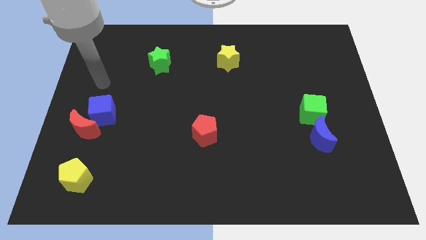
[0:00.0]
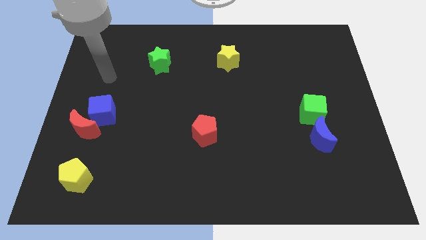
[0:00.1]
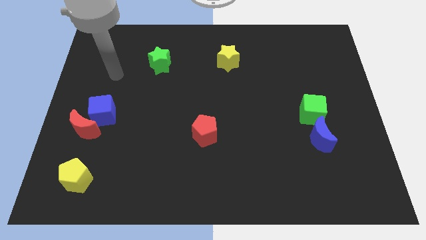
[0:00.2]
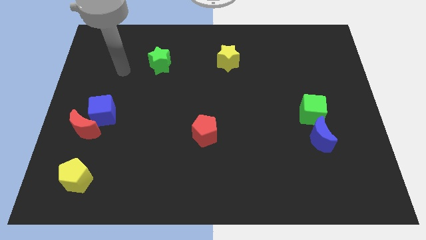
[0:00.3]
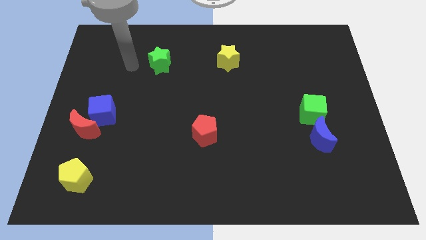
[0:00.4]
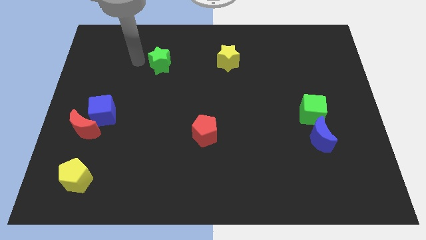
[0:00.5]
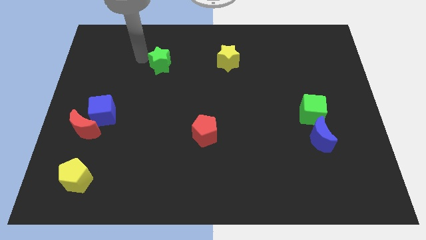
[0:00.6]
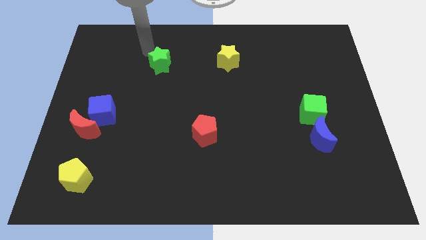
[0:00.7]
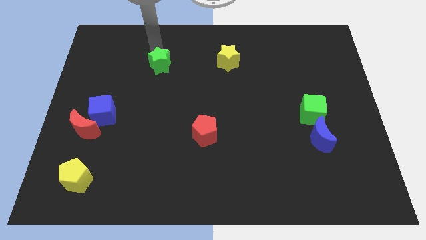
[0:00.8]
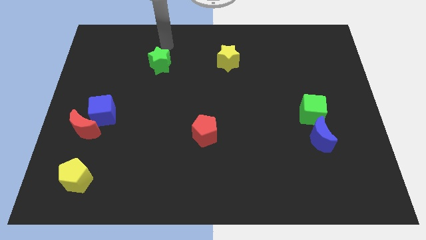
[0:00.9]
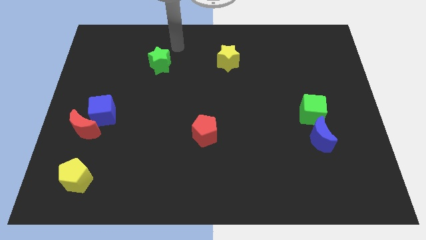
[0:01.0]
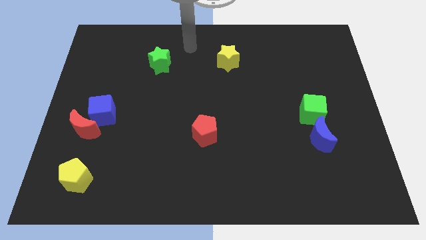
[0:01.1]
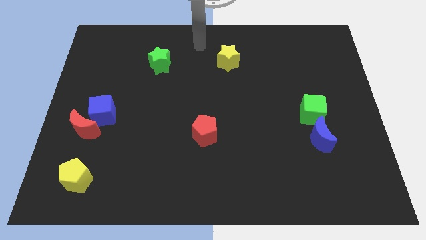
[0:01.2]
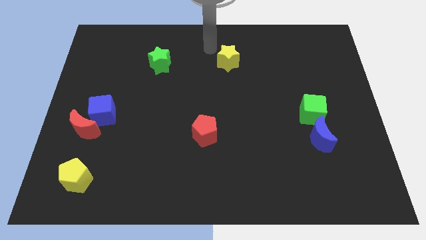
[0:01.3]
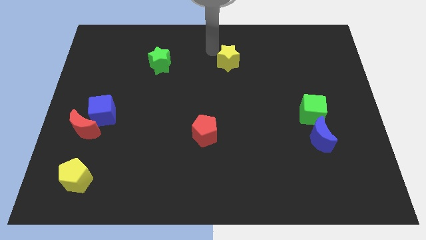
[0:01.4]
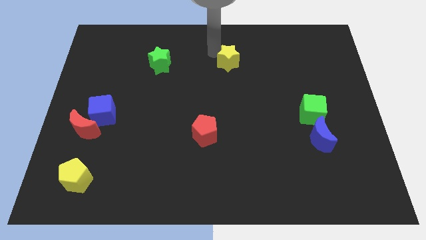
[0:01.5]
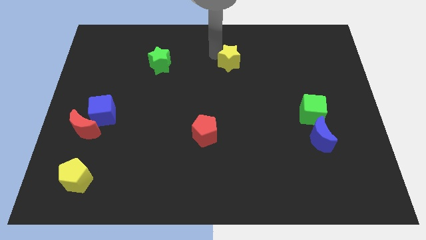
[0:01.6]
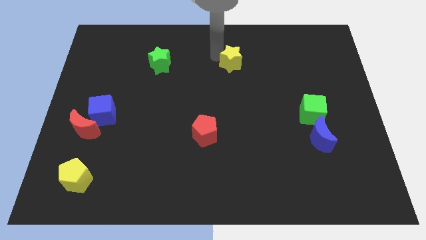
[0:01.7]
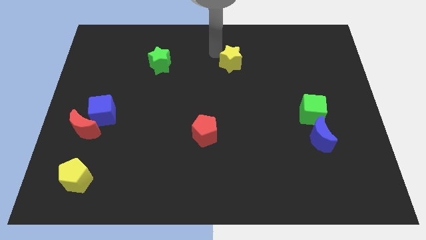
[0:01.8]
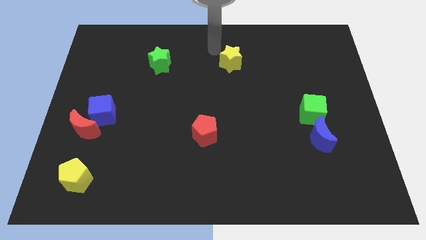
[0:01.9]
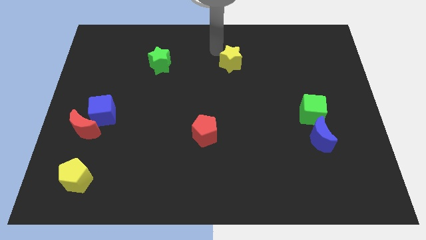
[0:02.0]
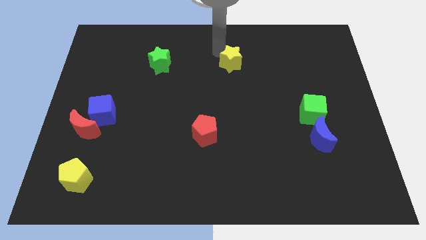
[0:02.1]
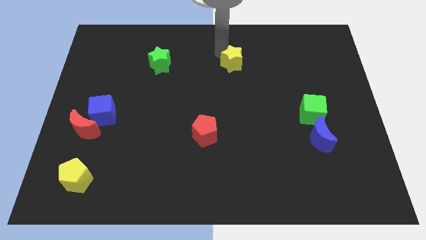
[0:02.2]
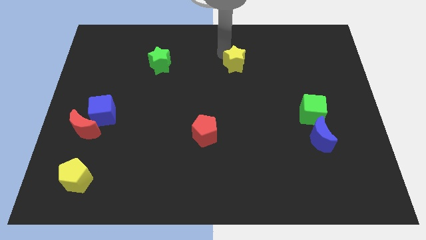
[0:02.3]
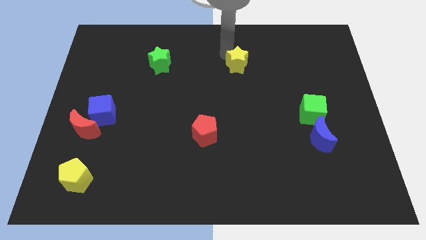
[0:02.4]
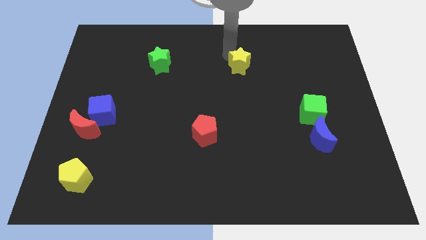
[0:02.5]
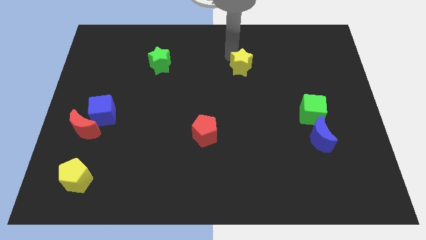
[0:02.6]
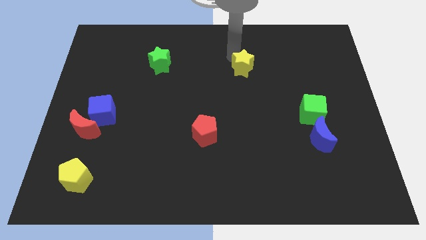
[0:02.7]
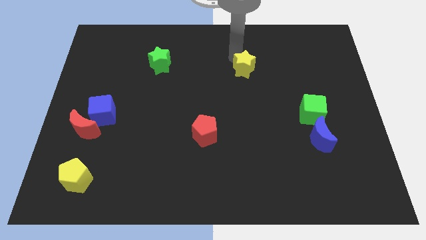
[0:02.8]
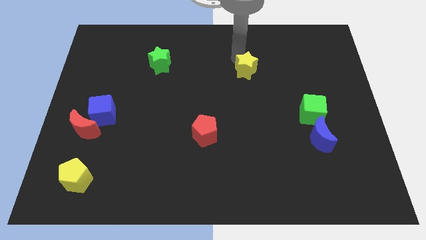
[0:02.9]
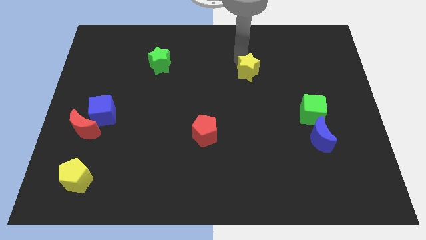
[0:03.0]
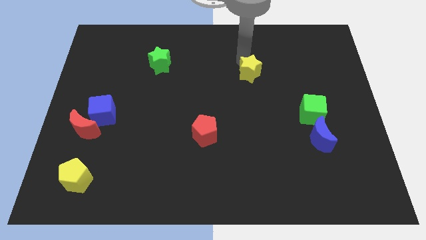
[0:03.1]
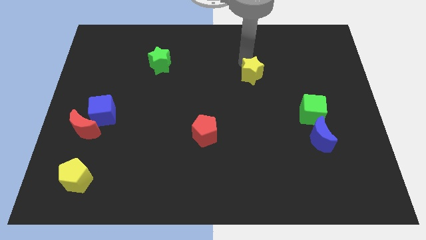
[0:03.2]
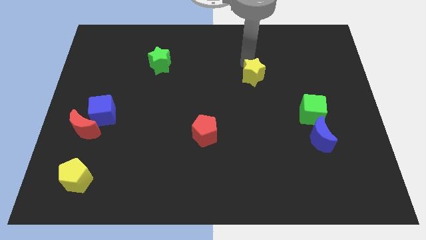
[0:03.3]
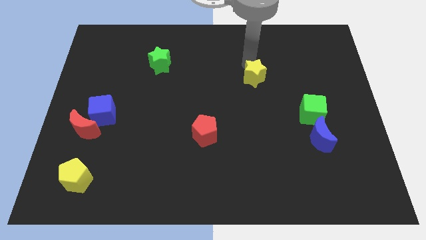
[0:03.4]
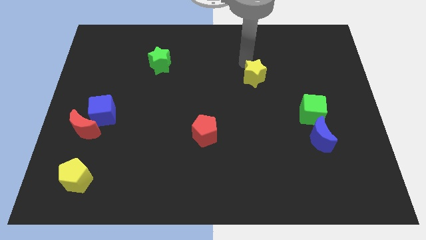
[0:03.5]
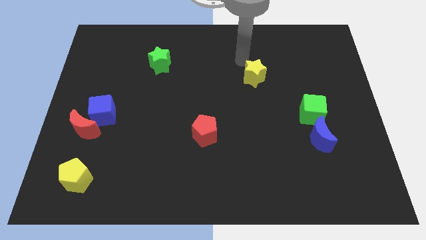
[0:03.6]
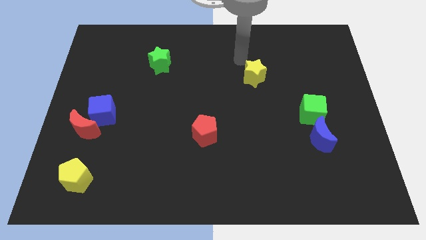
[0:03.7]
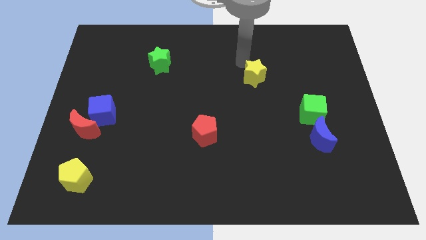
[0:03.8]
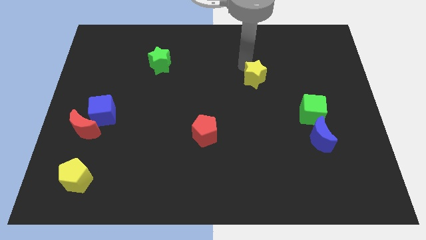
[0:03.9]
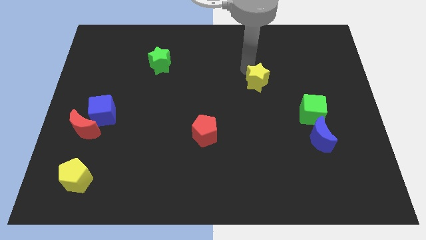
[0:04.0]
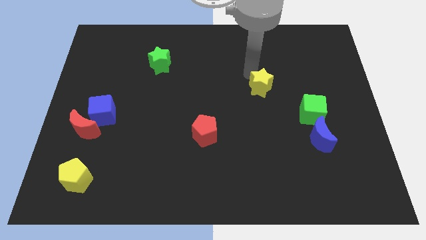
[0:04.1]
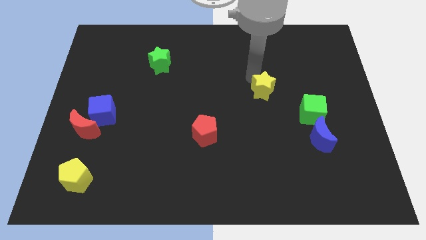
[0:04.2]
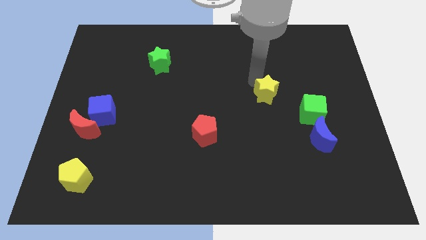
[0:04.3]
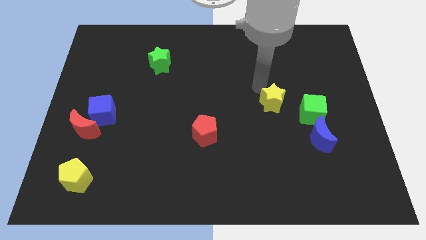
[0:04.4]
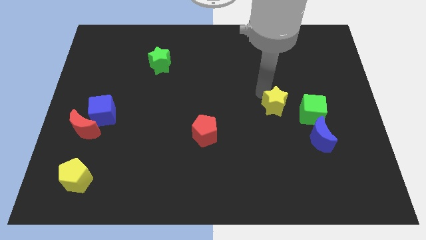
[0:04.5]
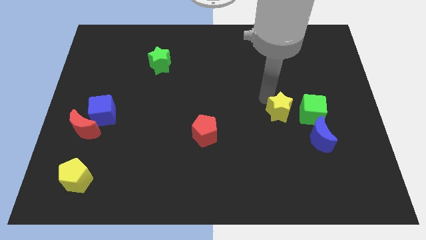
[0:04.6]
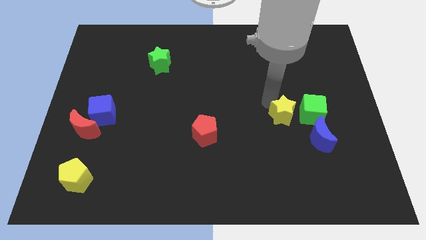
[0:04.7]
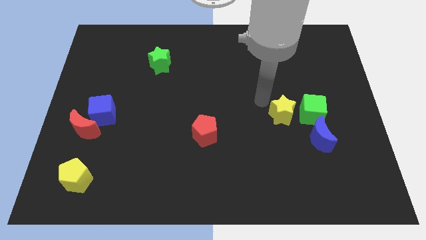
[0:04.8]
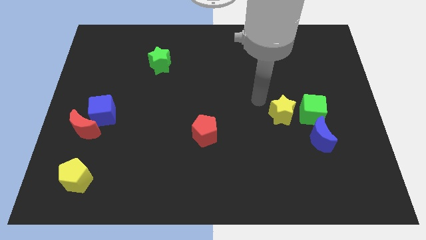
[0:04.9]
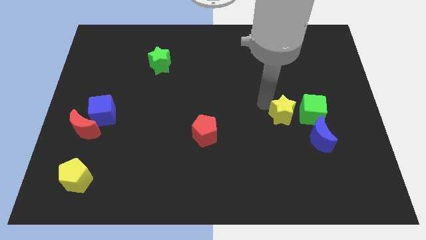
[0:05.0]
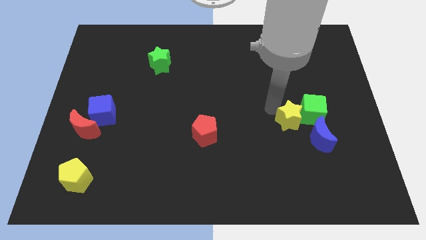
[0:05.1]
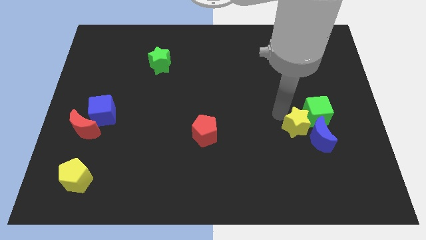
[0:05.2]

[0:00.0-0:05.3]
move the yellow star close to the blue moon

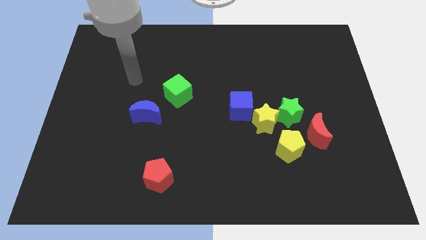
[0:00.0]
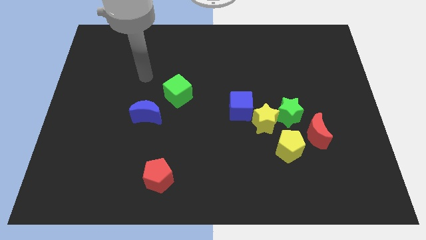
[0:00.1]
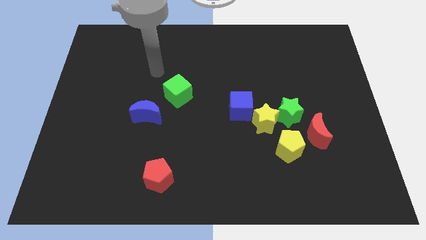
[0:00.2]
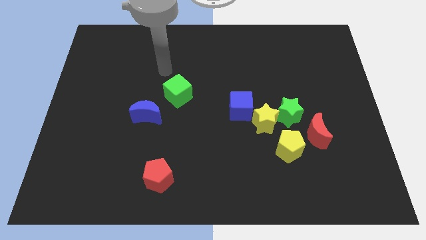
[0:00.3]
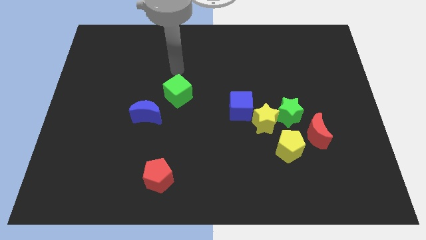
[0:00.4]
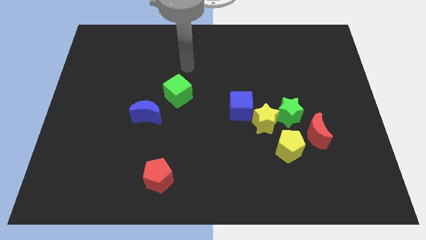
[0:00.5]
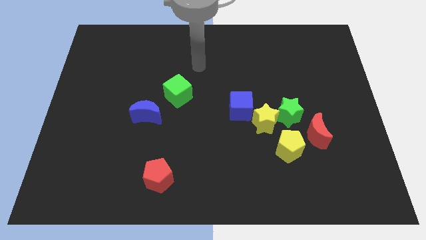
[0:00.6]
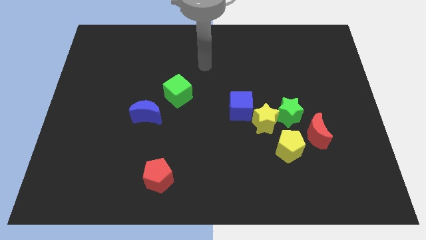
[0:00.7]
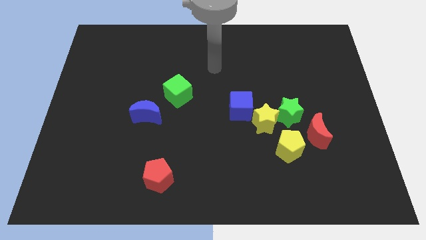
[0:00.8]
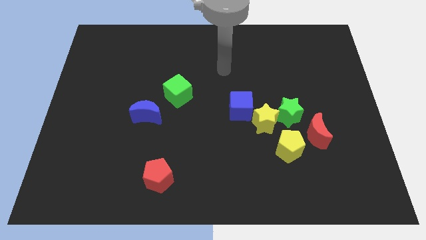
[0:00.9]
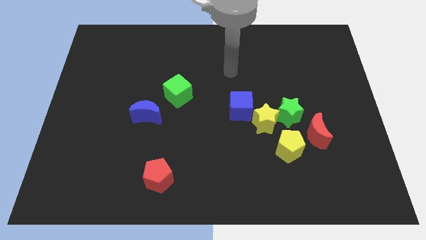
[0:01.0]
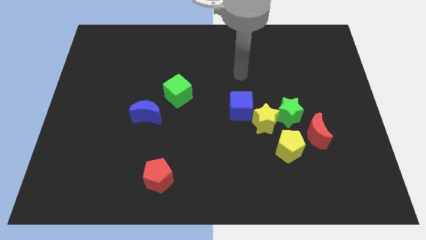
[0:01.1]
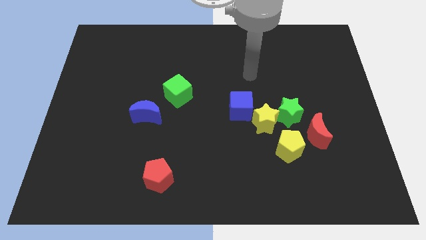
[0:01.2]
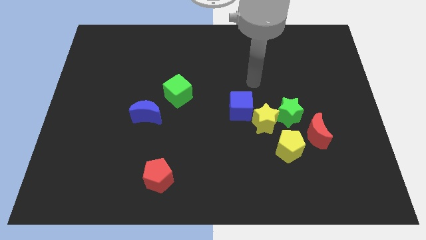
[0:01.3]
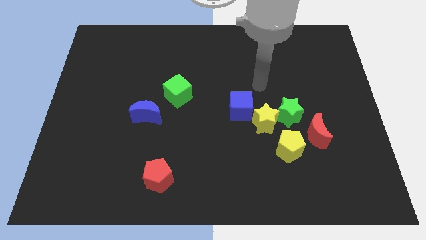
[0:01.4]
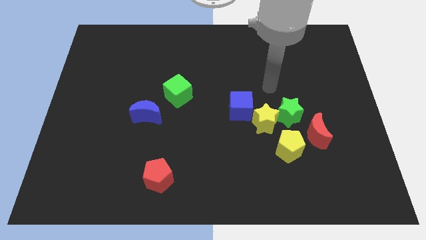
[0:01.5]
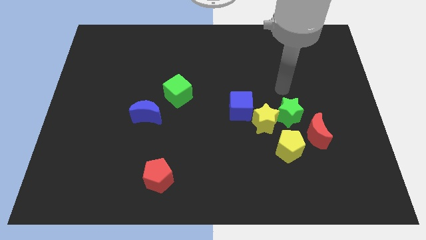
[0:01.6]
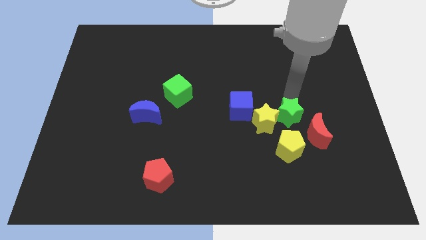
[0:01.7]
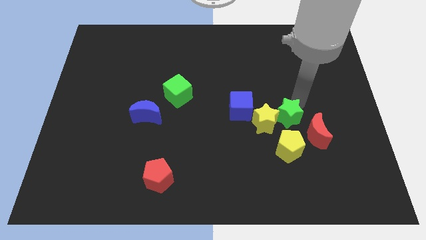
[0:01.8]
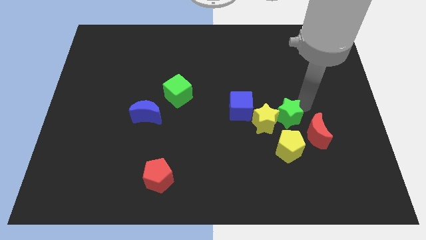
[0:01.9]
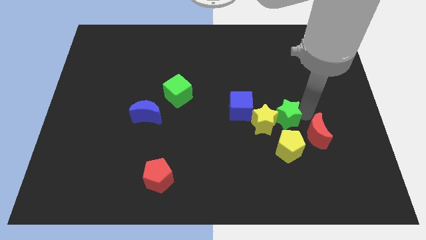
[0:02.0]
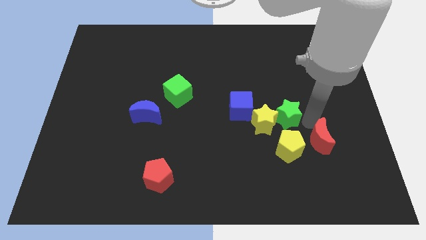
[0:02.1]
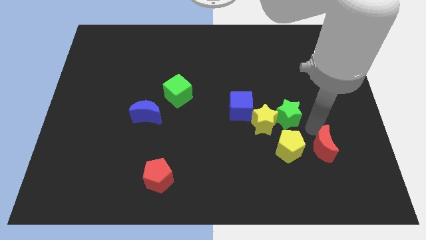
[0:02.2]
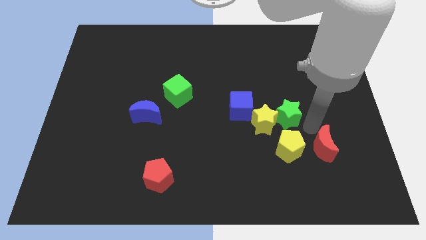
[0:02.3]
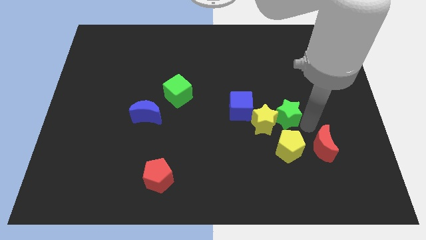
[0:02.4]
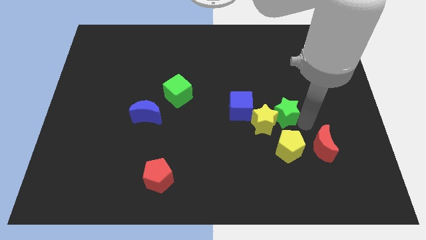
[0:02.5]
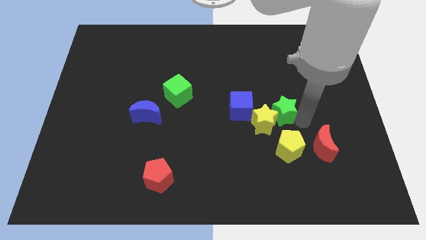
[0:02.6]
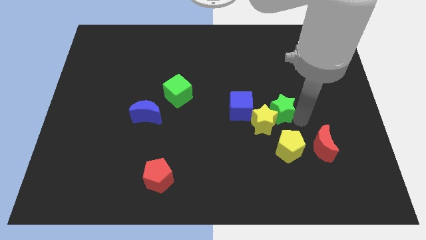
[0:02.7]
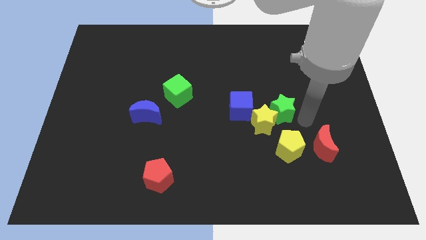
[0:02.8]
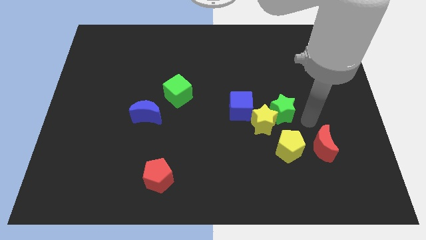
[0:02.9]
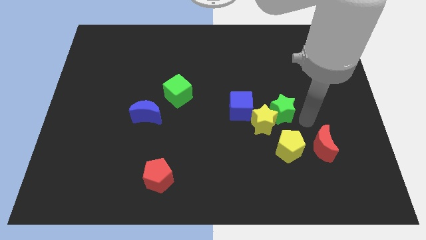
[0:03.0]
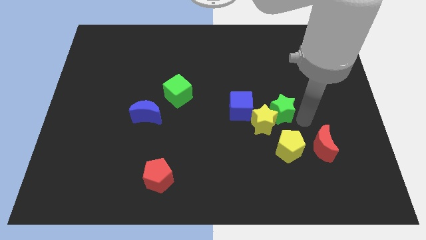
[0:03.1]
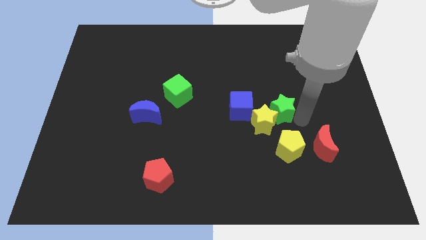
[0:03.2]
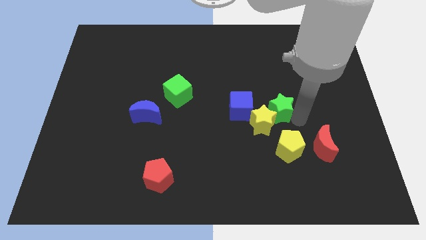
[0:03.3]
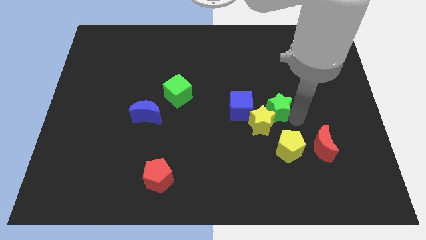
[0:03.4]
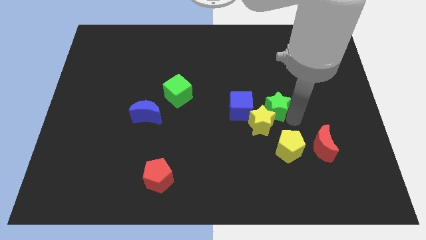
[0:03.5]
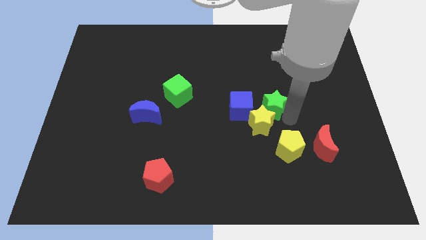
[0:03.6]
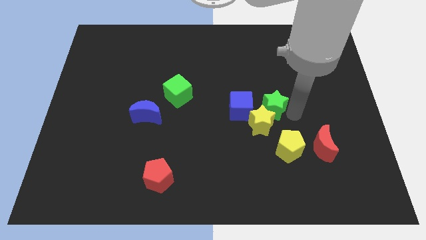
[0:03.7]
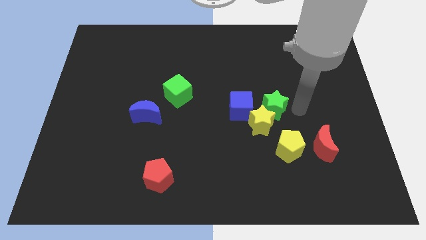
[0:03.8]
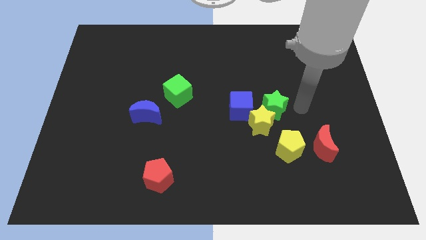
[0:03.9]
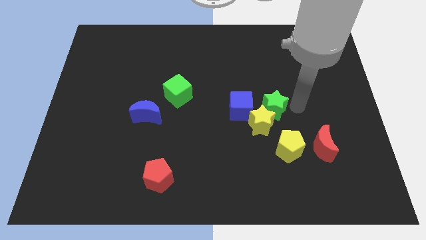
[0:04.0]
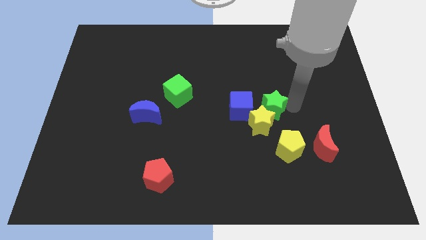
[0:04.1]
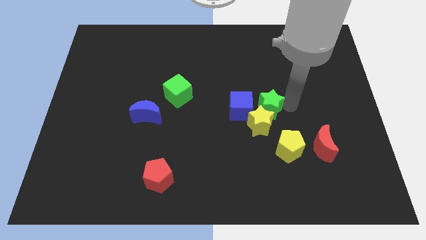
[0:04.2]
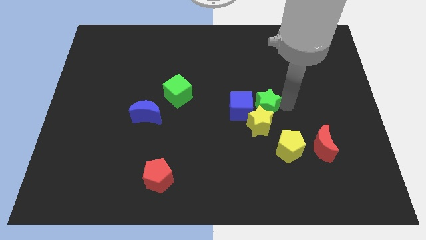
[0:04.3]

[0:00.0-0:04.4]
slide the green star towards the blue cube
